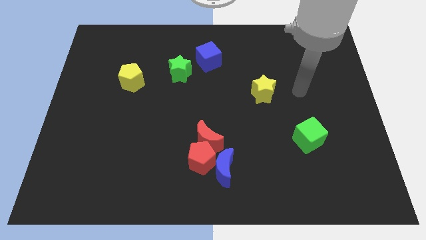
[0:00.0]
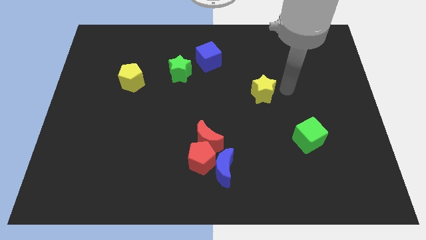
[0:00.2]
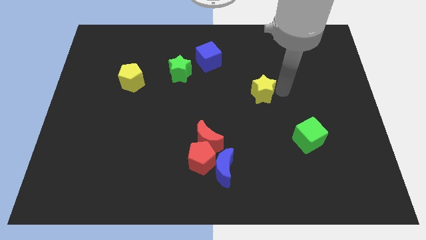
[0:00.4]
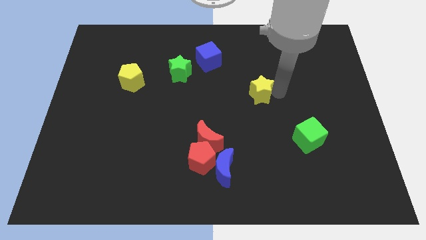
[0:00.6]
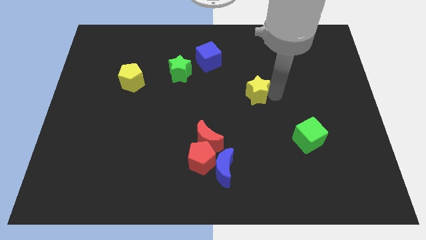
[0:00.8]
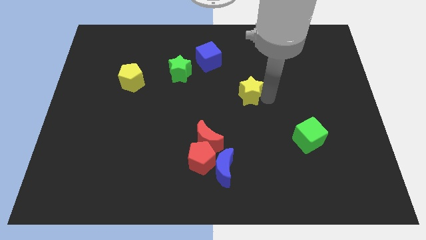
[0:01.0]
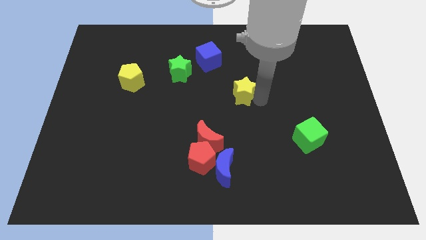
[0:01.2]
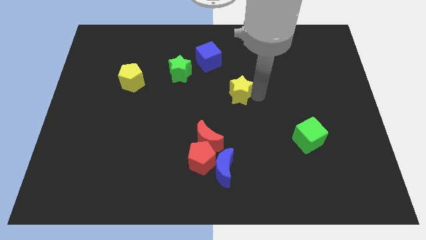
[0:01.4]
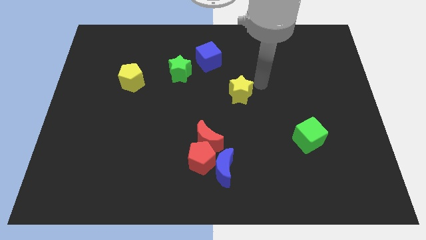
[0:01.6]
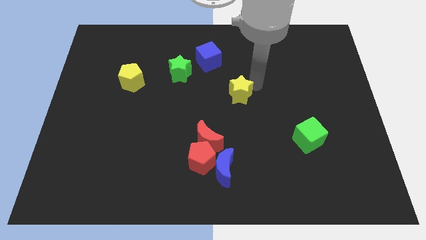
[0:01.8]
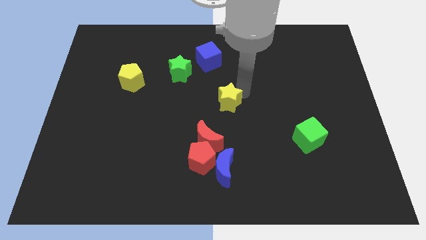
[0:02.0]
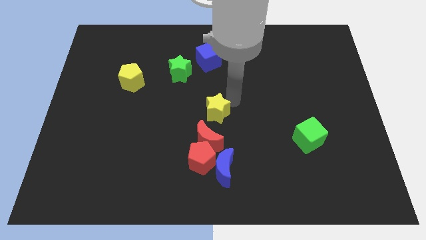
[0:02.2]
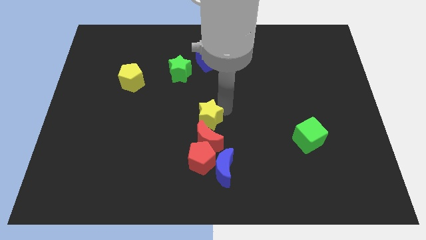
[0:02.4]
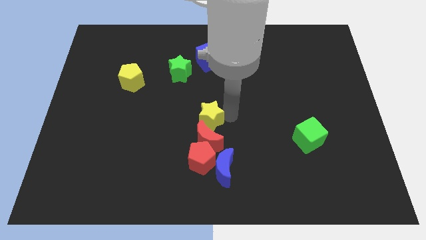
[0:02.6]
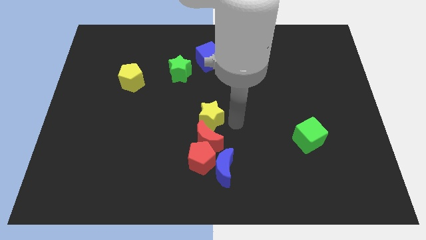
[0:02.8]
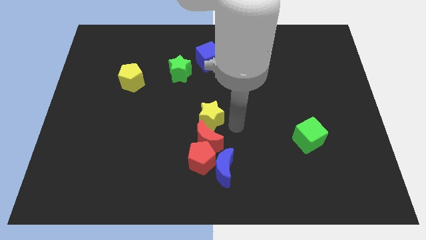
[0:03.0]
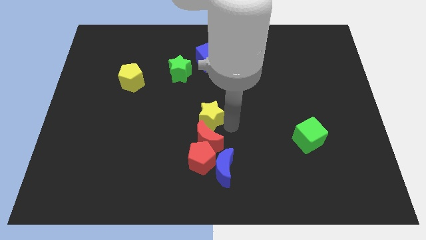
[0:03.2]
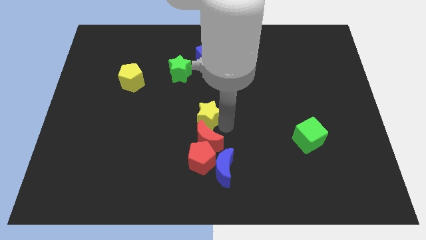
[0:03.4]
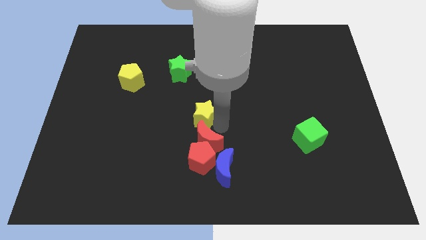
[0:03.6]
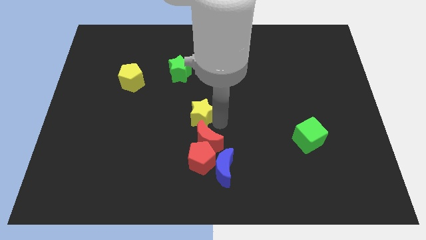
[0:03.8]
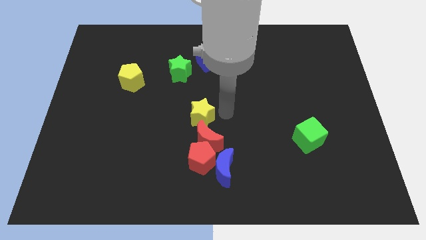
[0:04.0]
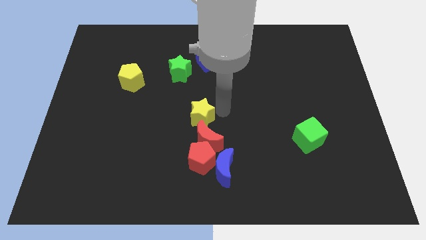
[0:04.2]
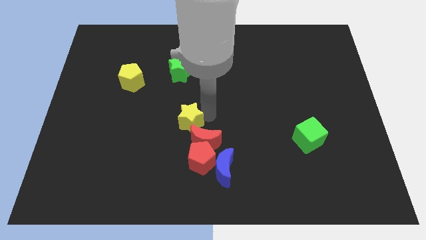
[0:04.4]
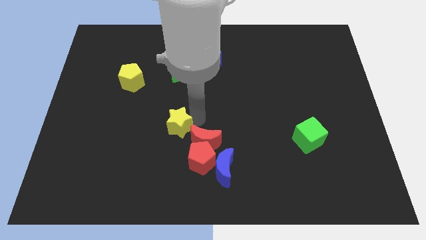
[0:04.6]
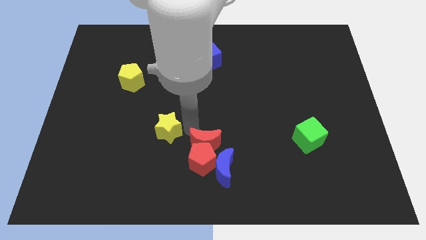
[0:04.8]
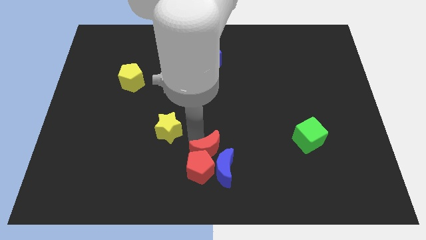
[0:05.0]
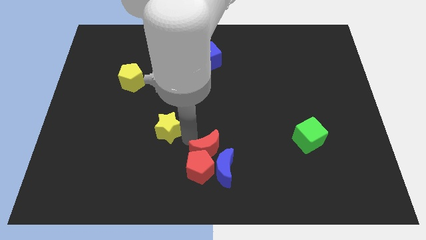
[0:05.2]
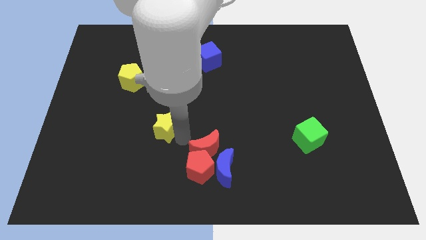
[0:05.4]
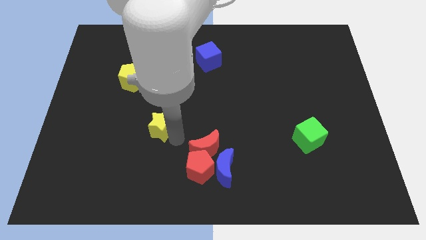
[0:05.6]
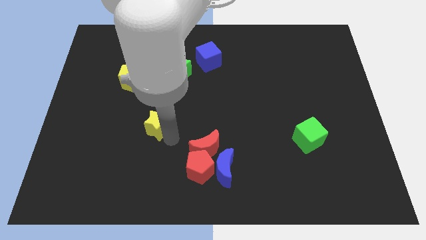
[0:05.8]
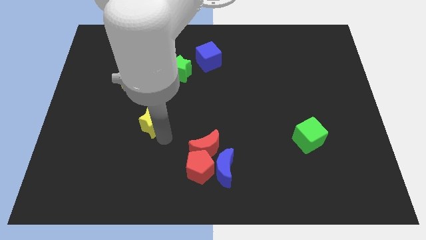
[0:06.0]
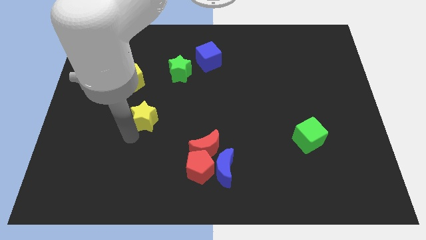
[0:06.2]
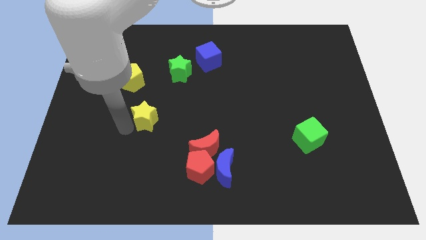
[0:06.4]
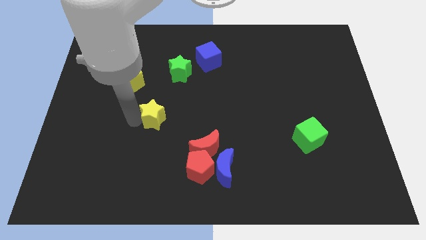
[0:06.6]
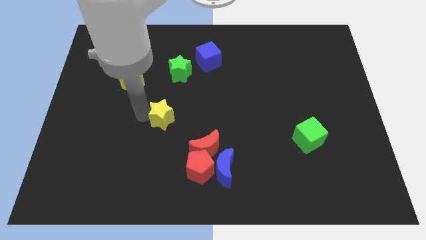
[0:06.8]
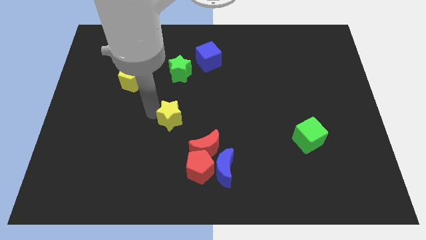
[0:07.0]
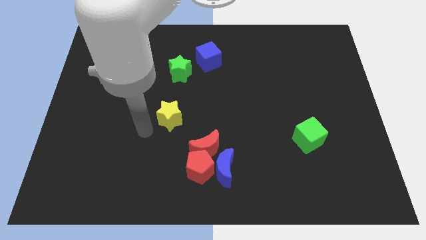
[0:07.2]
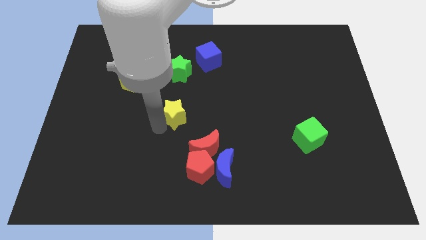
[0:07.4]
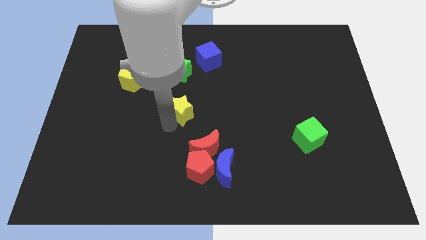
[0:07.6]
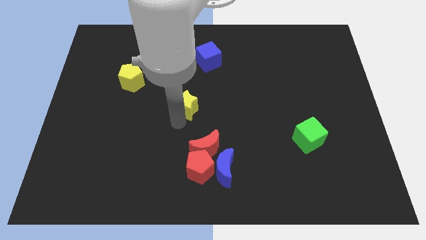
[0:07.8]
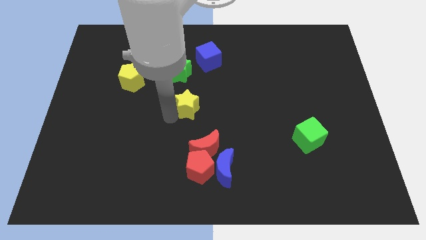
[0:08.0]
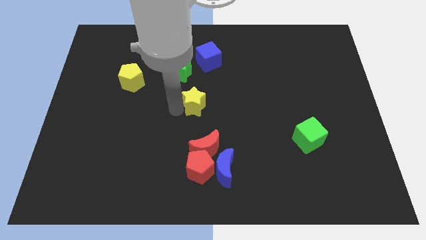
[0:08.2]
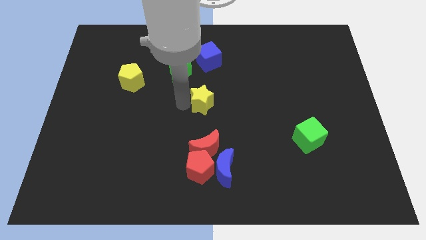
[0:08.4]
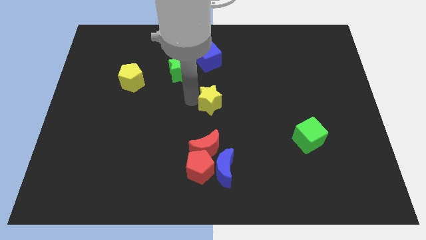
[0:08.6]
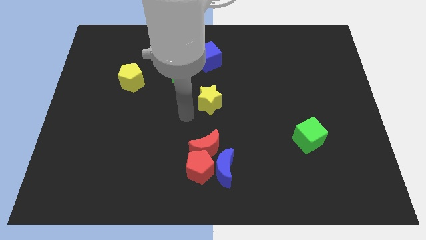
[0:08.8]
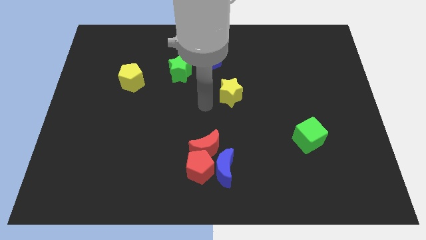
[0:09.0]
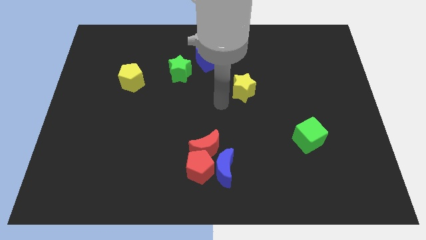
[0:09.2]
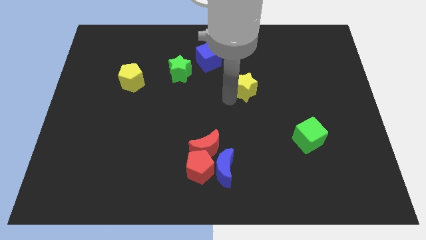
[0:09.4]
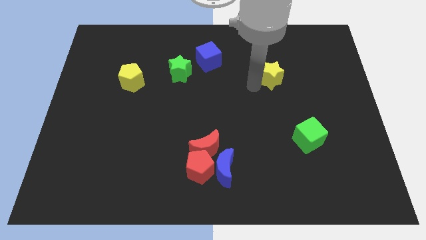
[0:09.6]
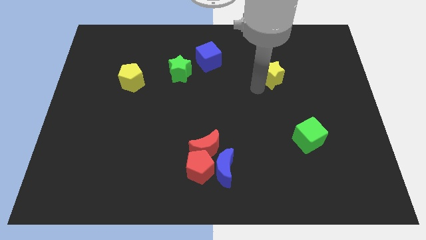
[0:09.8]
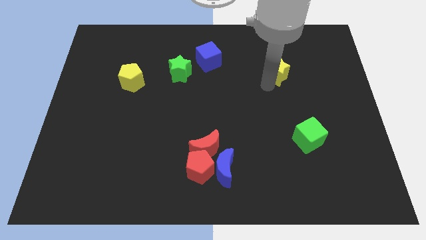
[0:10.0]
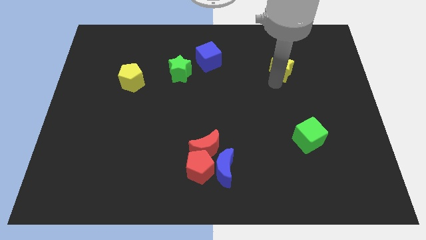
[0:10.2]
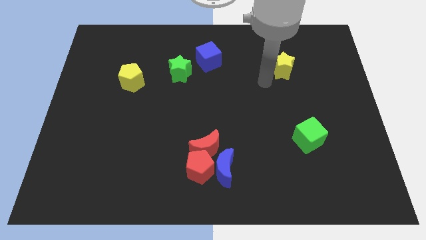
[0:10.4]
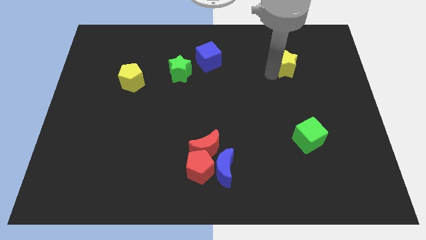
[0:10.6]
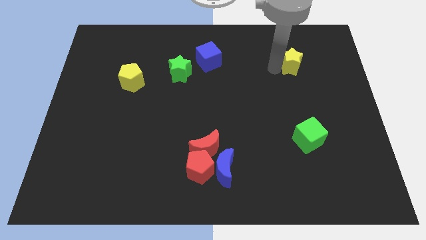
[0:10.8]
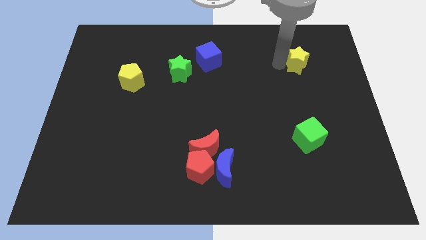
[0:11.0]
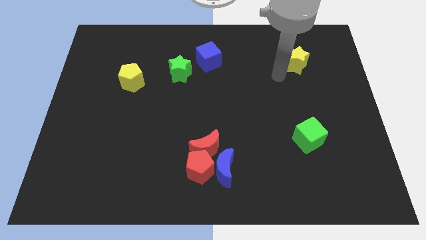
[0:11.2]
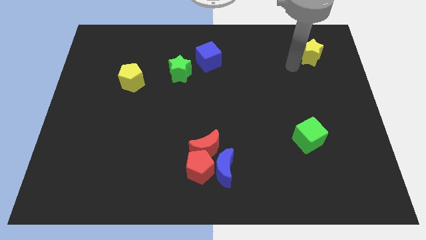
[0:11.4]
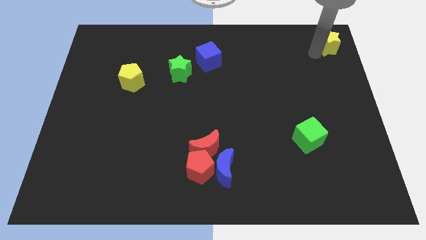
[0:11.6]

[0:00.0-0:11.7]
move the yellow star to the top right

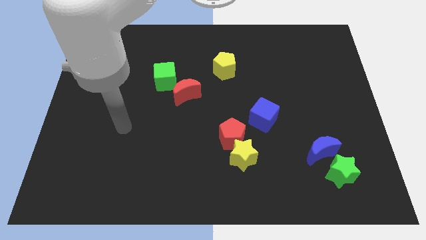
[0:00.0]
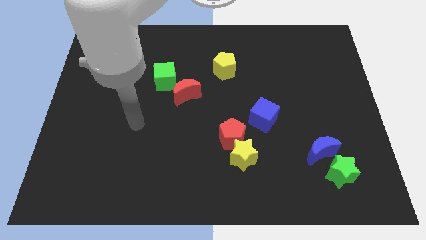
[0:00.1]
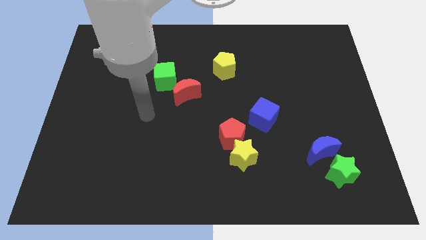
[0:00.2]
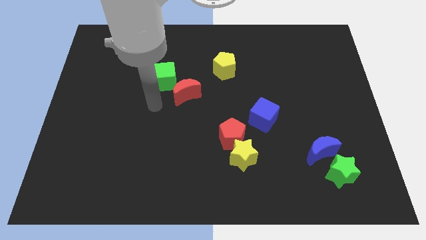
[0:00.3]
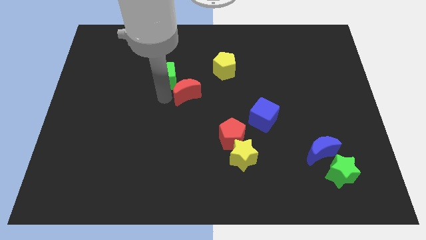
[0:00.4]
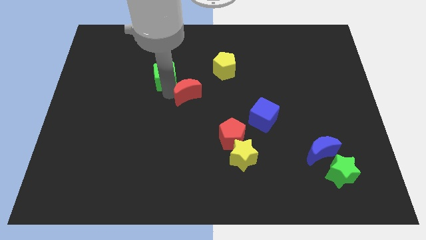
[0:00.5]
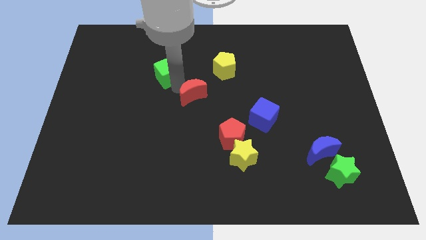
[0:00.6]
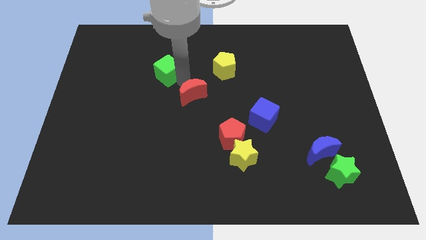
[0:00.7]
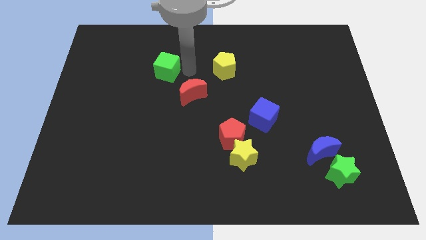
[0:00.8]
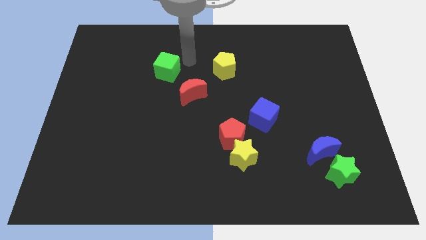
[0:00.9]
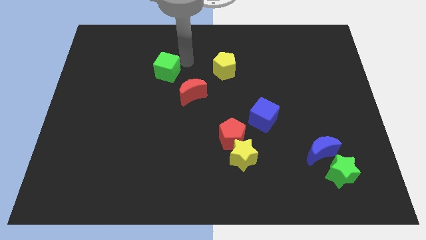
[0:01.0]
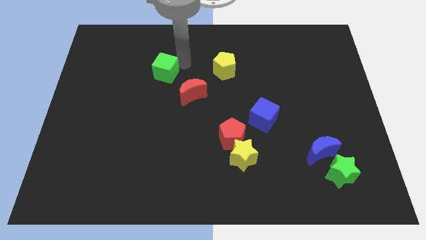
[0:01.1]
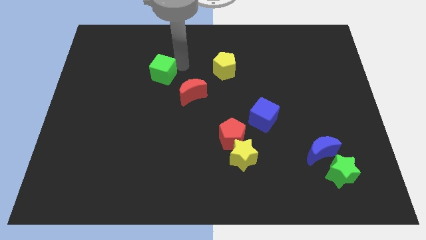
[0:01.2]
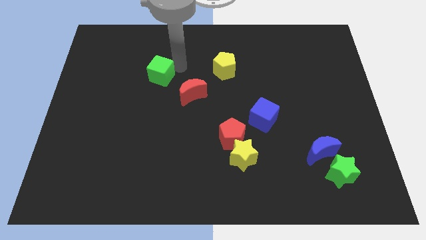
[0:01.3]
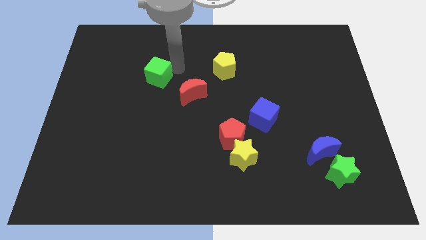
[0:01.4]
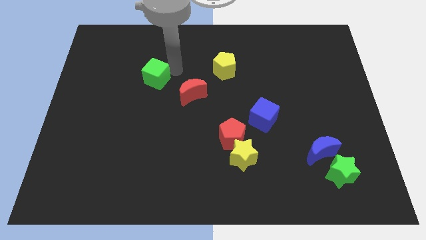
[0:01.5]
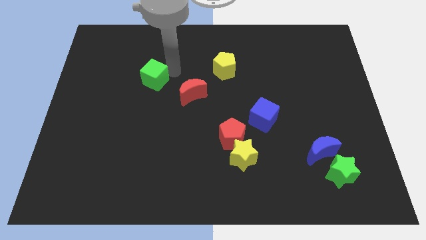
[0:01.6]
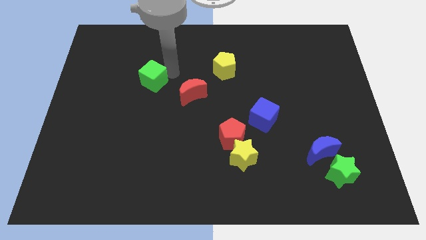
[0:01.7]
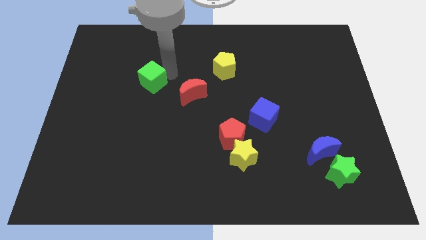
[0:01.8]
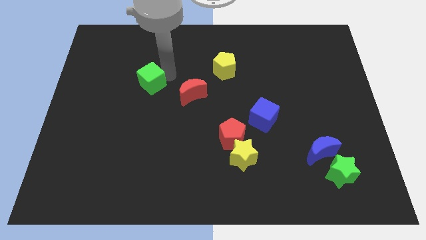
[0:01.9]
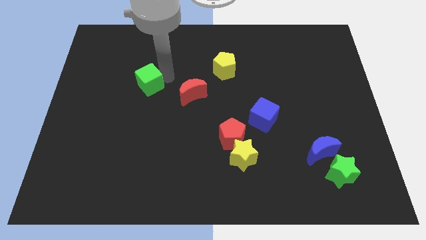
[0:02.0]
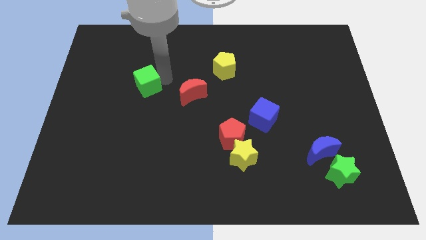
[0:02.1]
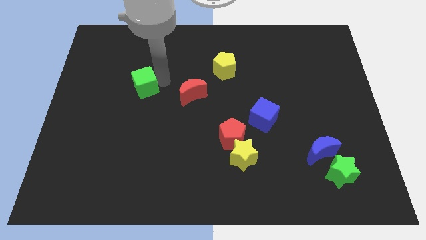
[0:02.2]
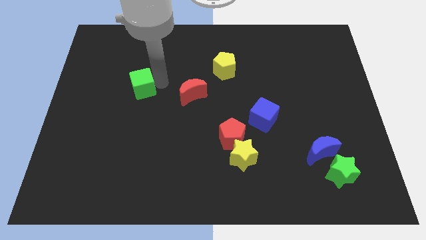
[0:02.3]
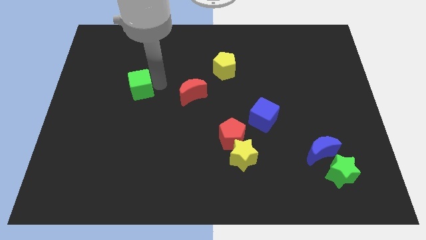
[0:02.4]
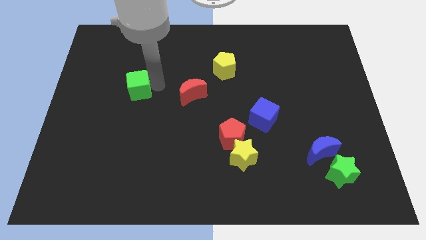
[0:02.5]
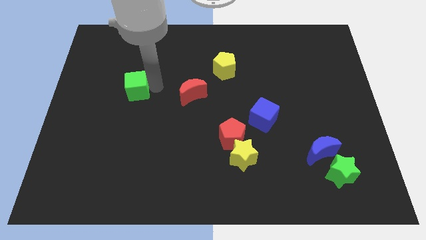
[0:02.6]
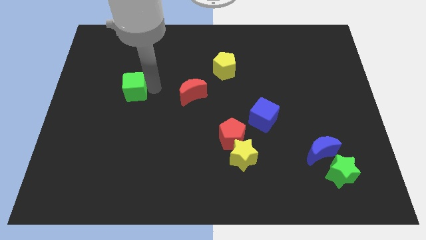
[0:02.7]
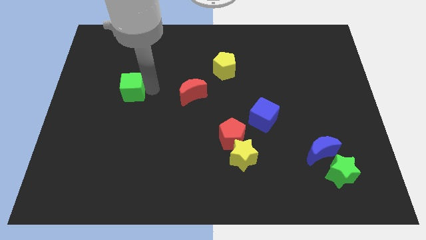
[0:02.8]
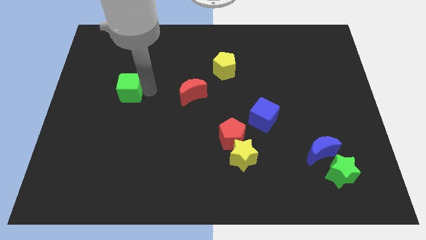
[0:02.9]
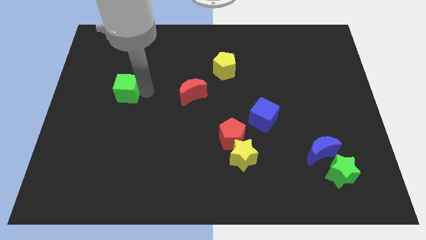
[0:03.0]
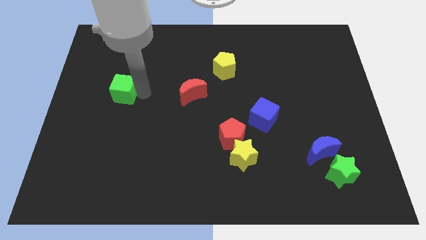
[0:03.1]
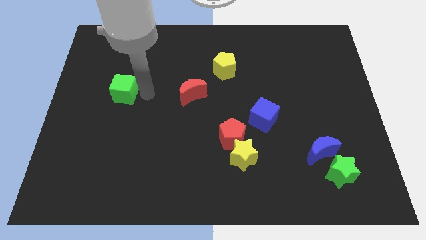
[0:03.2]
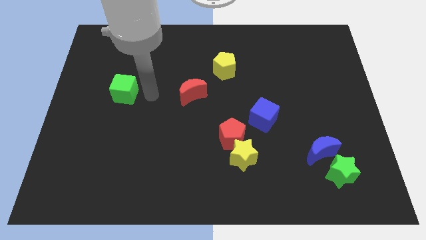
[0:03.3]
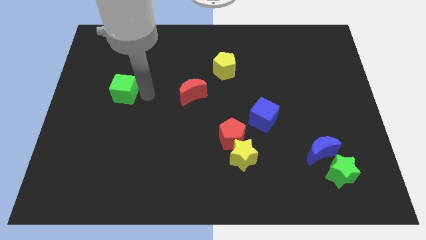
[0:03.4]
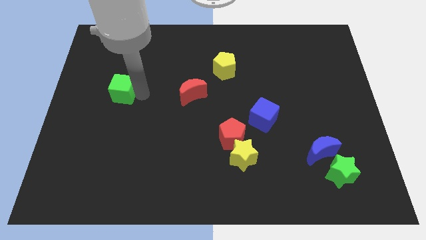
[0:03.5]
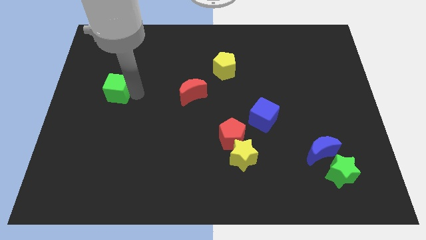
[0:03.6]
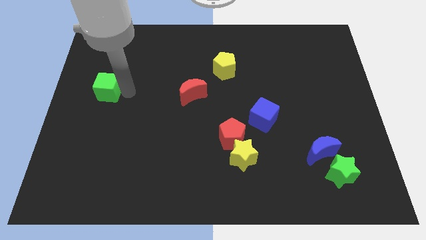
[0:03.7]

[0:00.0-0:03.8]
move the green cube to the left side of the board
